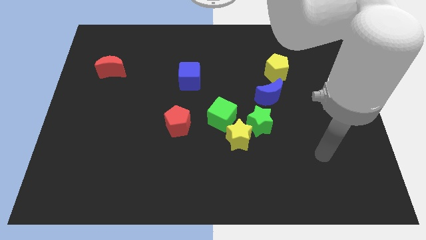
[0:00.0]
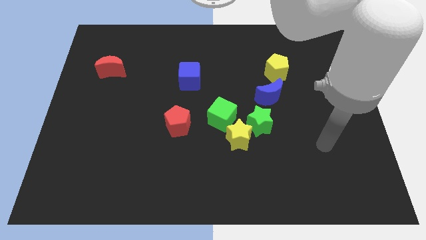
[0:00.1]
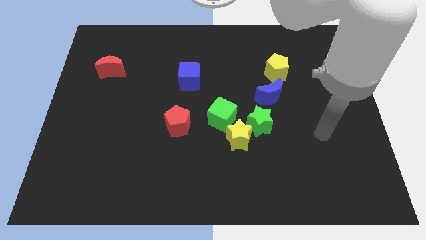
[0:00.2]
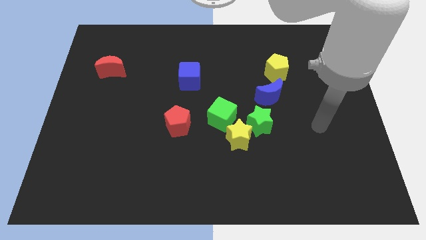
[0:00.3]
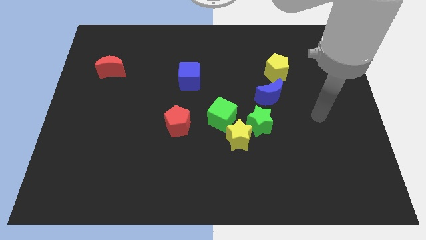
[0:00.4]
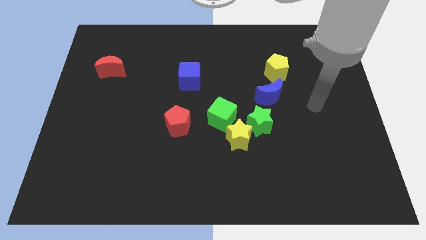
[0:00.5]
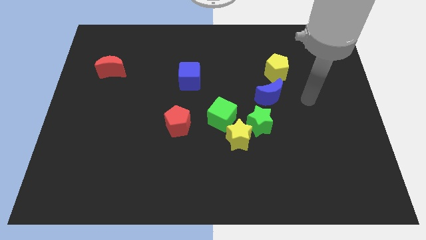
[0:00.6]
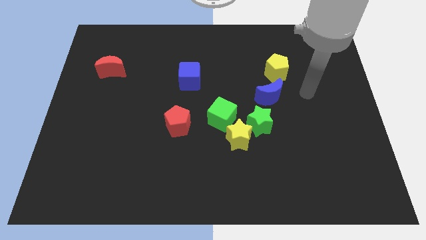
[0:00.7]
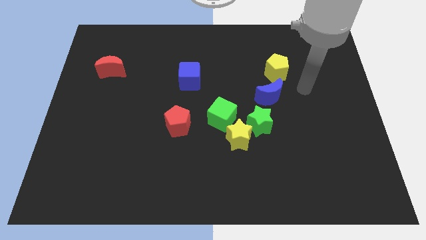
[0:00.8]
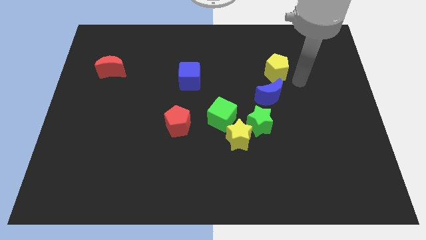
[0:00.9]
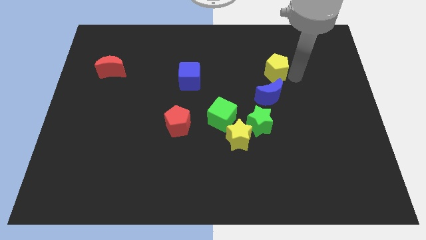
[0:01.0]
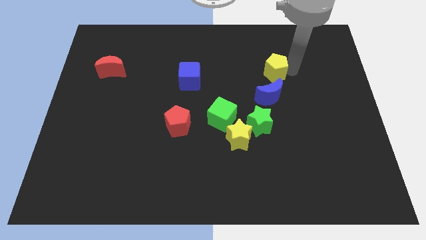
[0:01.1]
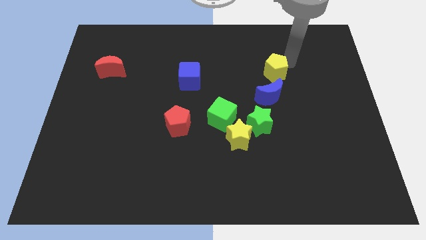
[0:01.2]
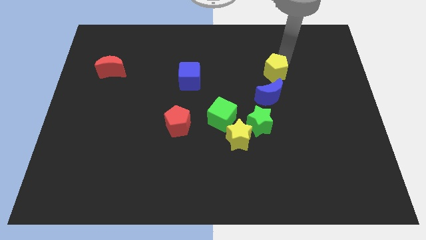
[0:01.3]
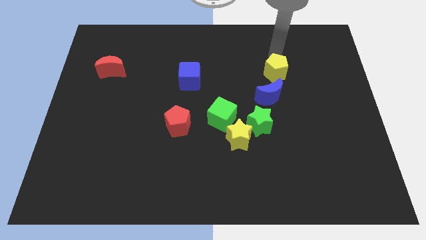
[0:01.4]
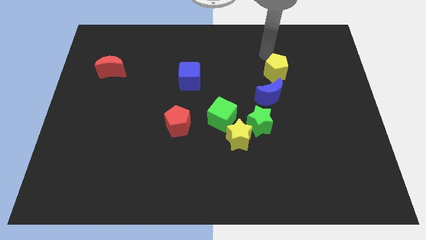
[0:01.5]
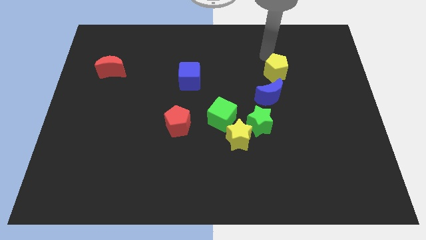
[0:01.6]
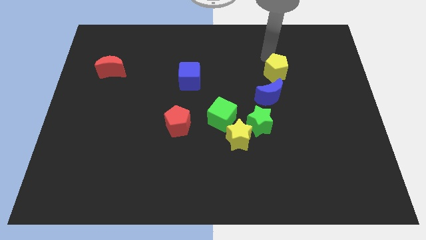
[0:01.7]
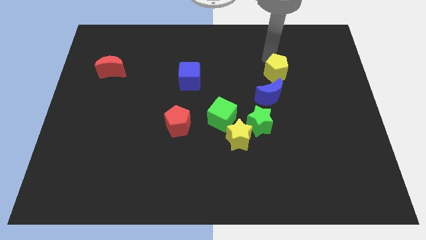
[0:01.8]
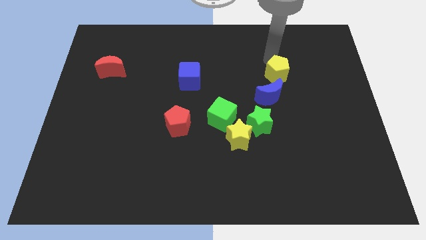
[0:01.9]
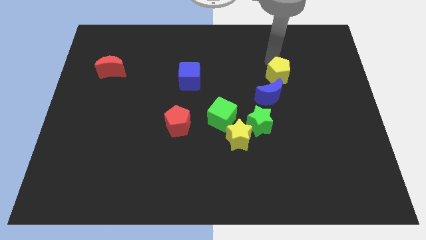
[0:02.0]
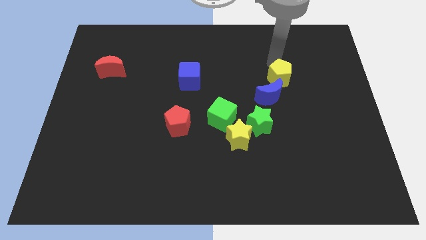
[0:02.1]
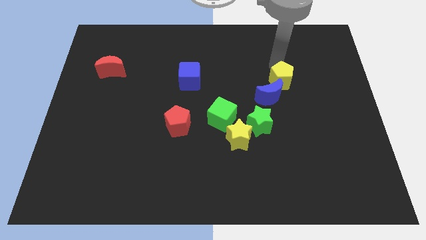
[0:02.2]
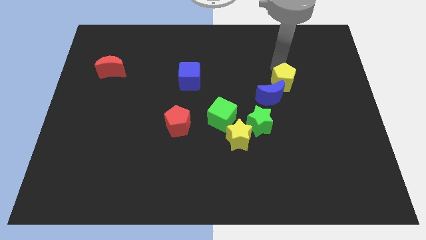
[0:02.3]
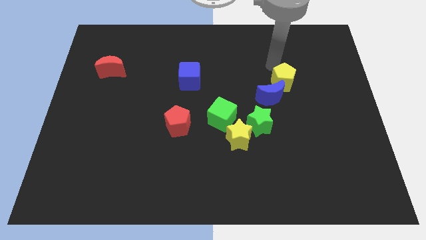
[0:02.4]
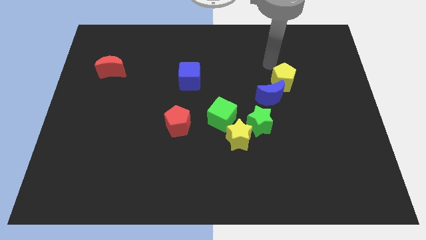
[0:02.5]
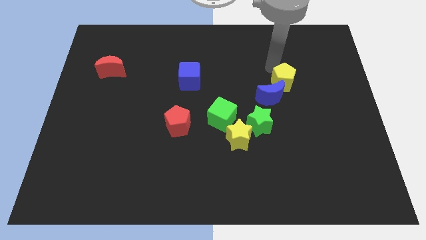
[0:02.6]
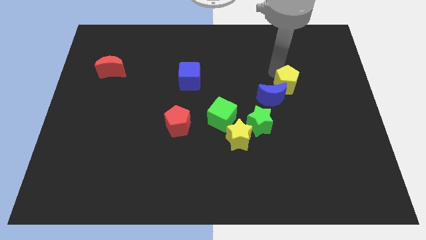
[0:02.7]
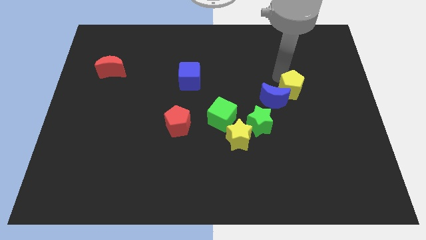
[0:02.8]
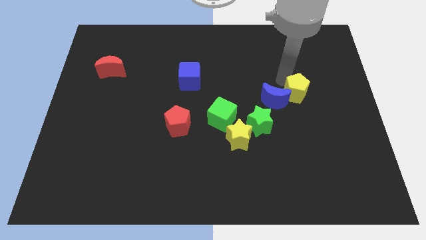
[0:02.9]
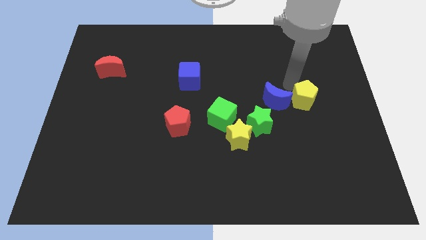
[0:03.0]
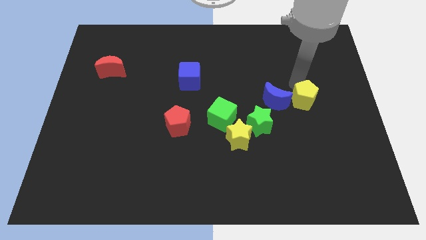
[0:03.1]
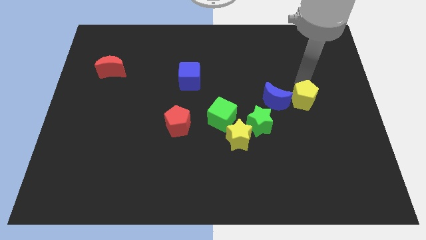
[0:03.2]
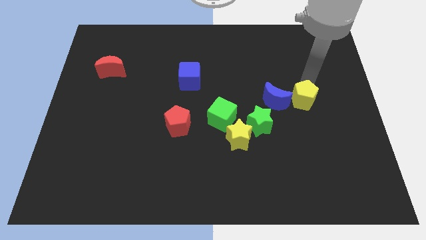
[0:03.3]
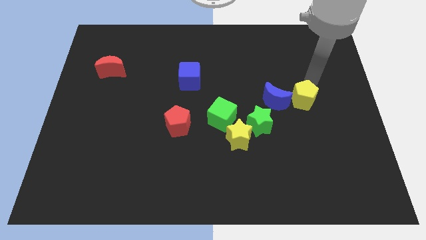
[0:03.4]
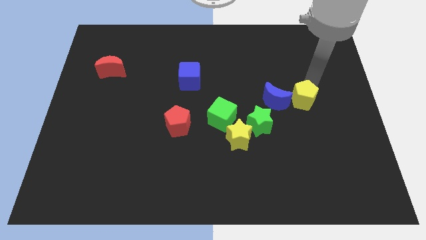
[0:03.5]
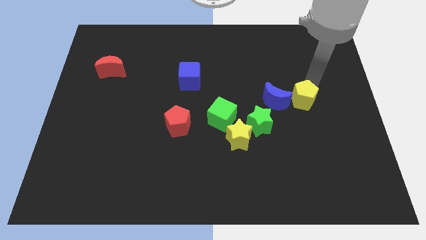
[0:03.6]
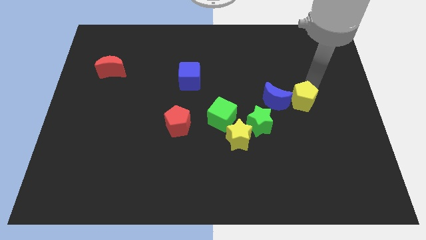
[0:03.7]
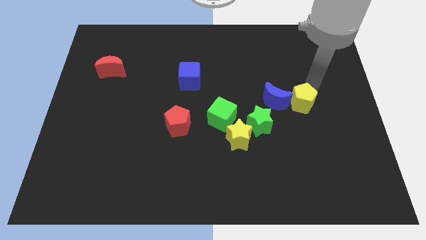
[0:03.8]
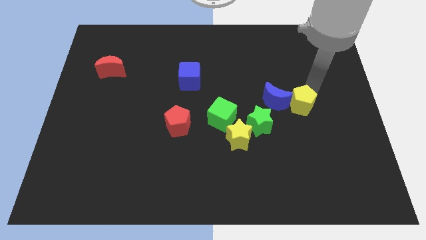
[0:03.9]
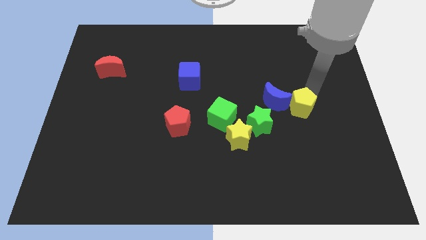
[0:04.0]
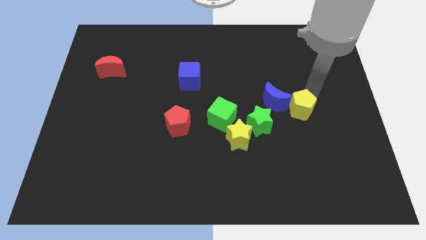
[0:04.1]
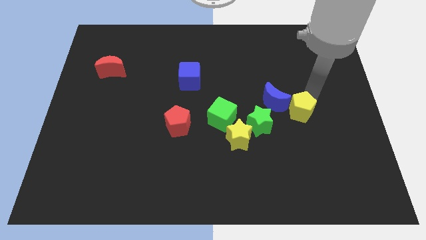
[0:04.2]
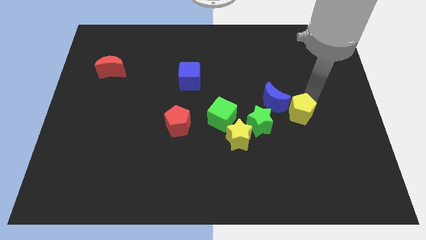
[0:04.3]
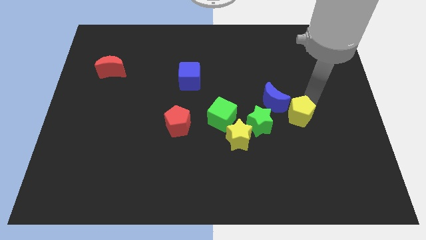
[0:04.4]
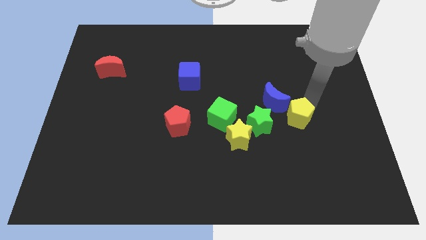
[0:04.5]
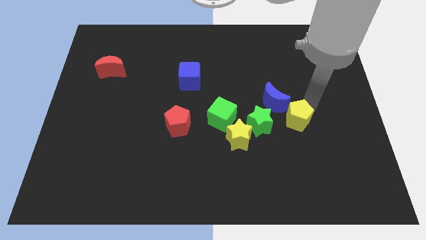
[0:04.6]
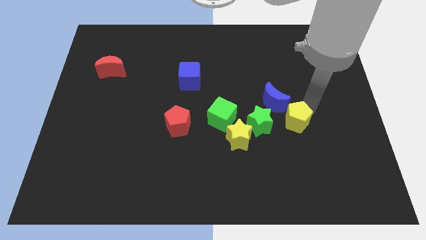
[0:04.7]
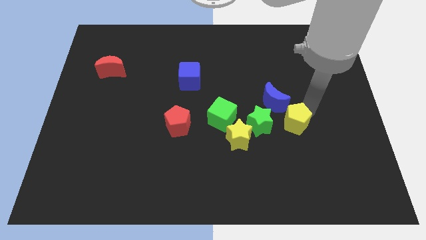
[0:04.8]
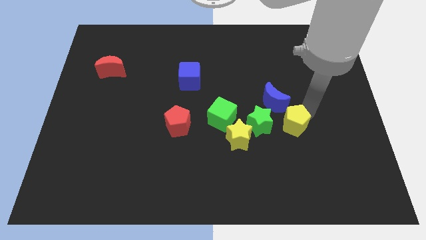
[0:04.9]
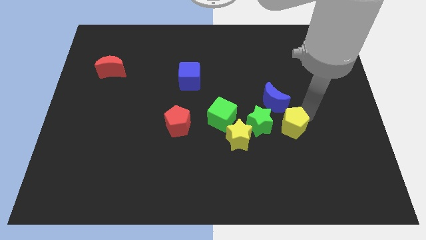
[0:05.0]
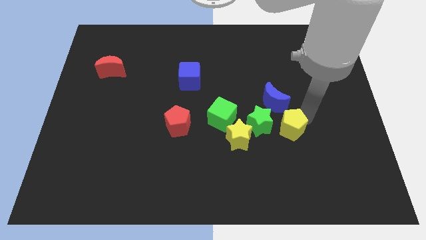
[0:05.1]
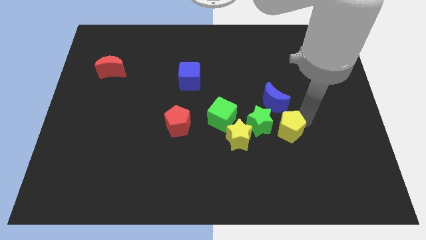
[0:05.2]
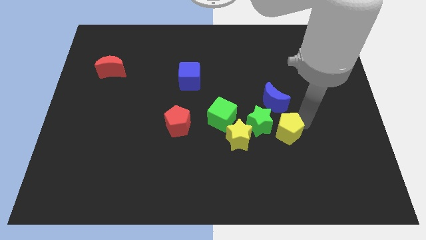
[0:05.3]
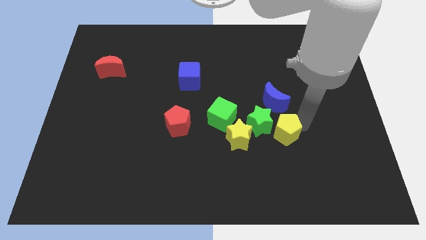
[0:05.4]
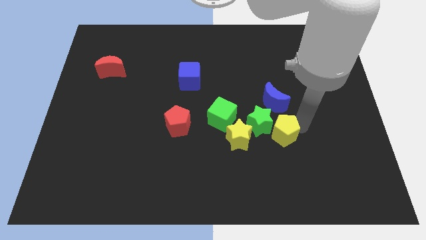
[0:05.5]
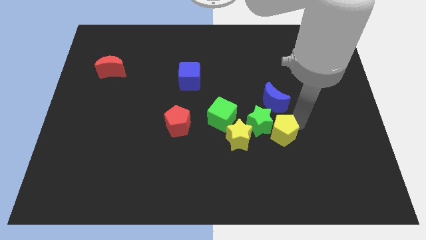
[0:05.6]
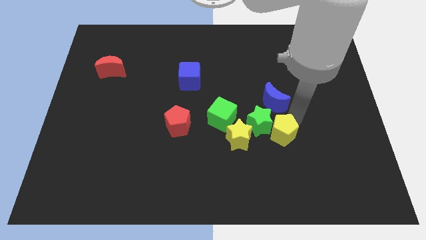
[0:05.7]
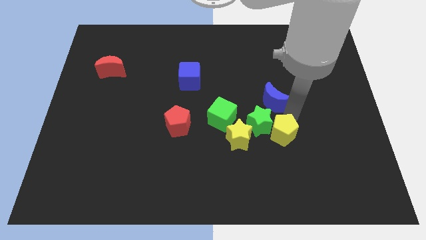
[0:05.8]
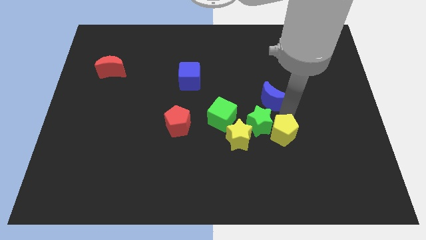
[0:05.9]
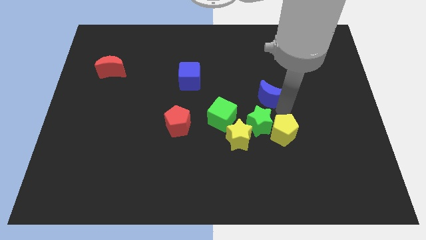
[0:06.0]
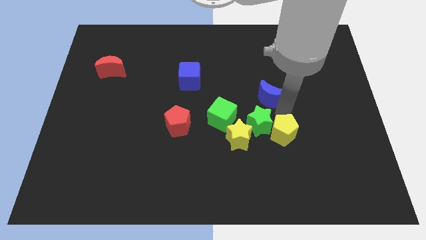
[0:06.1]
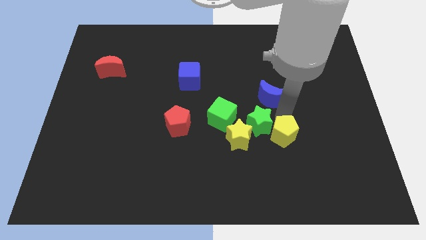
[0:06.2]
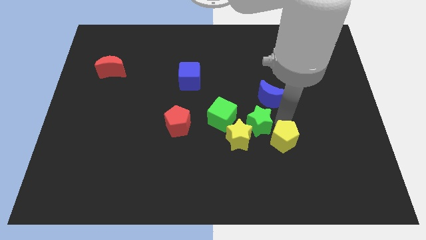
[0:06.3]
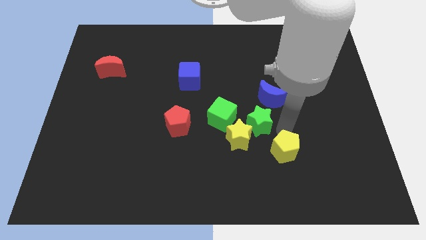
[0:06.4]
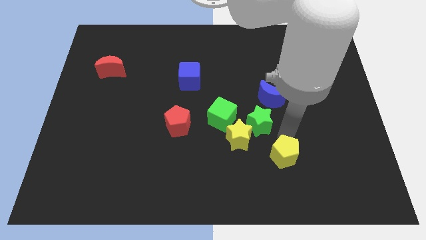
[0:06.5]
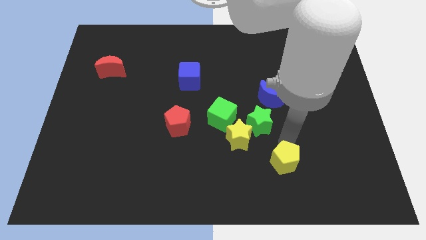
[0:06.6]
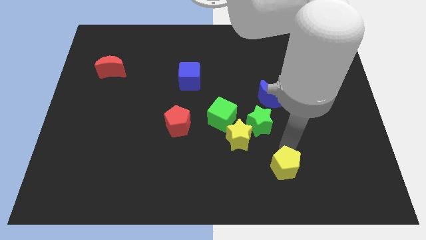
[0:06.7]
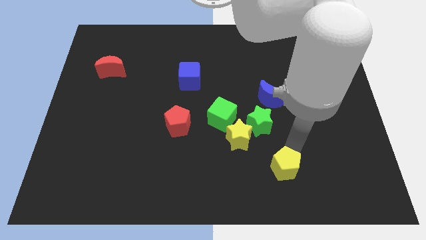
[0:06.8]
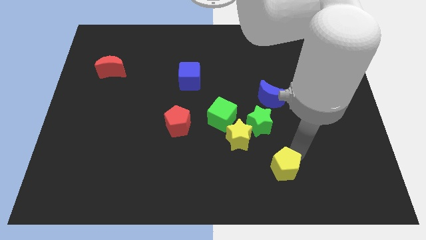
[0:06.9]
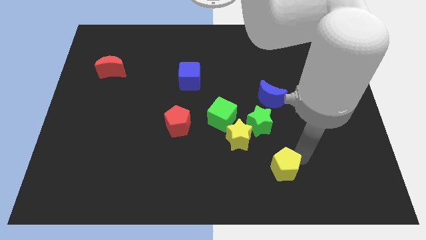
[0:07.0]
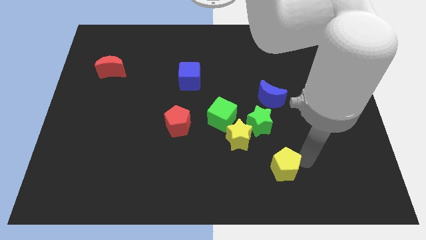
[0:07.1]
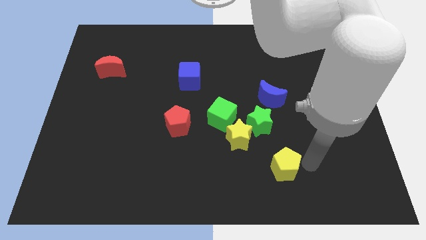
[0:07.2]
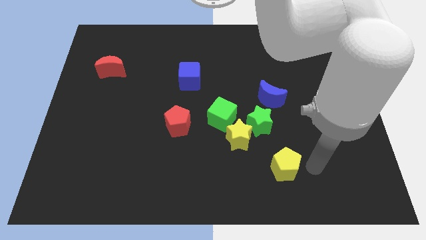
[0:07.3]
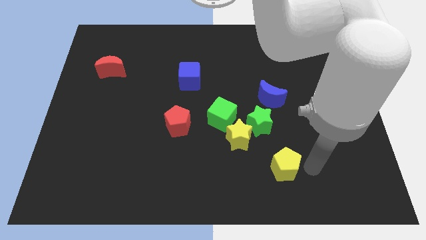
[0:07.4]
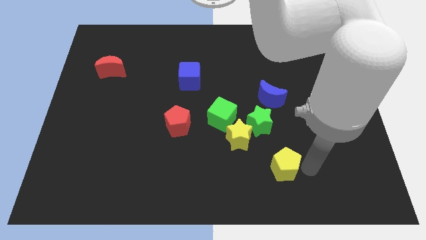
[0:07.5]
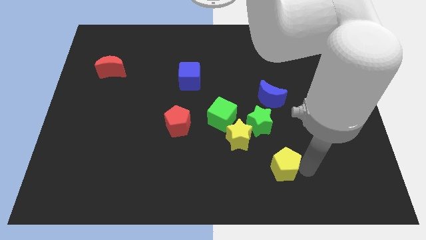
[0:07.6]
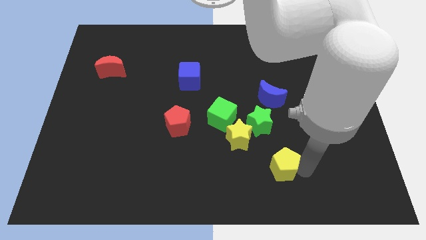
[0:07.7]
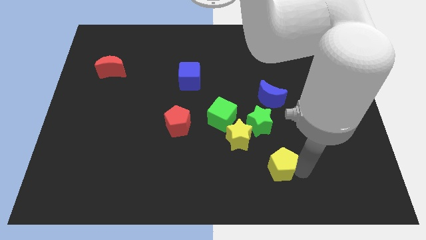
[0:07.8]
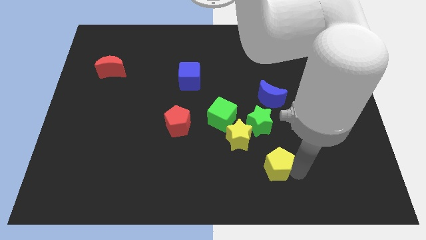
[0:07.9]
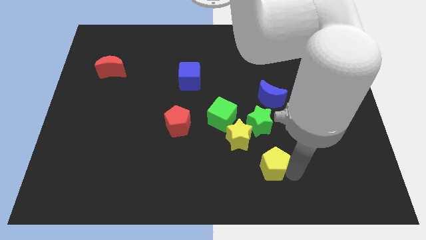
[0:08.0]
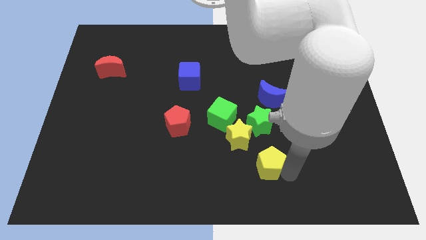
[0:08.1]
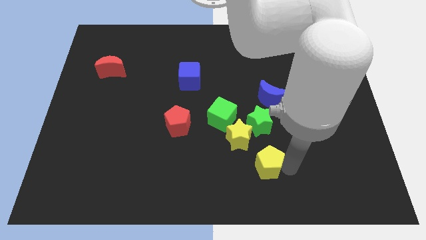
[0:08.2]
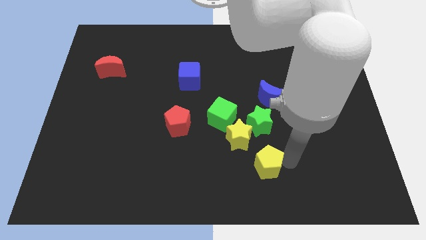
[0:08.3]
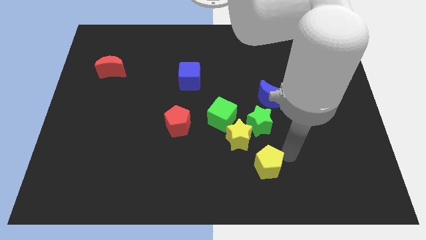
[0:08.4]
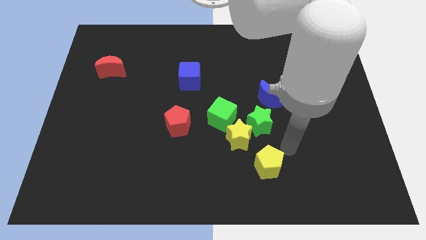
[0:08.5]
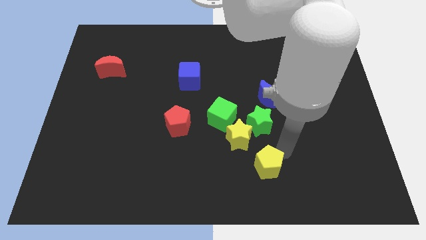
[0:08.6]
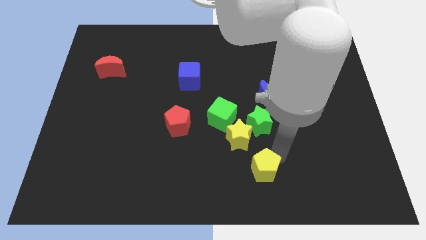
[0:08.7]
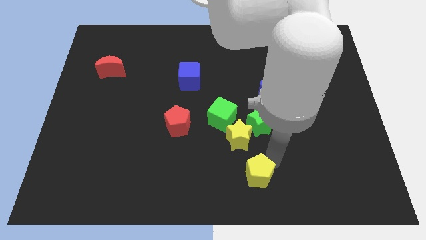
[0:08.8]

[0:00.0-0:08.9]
put the yellow pentagon to the bottom side
